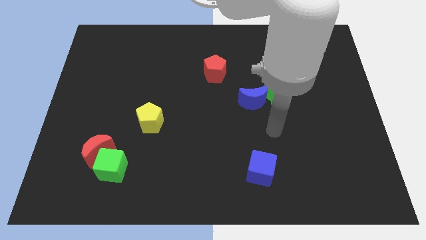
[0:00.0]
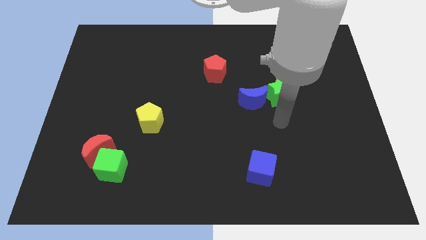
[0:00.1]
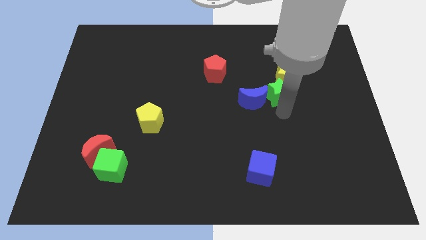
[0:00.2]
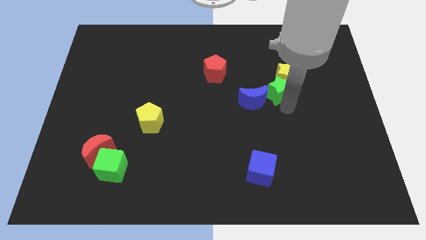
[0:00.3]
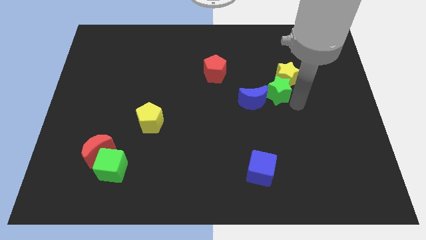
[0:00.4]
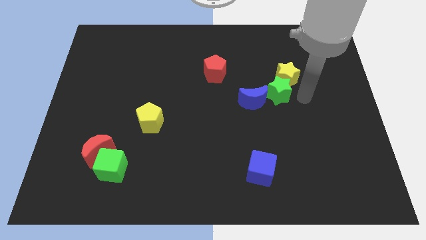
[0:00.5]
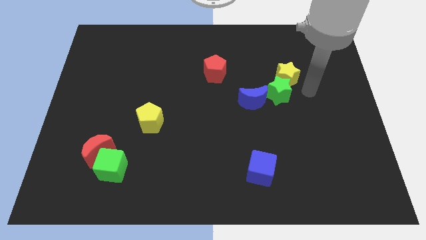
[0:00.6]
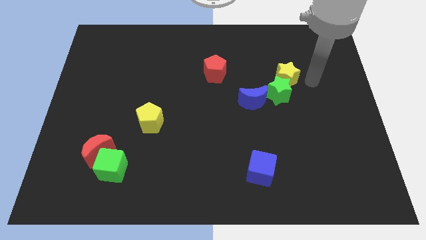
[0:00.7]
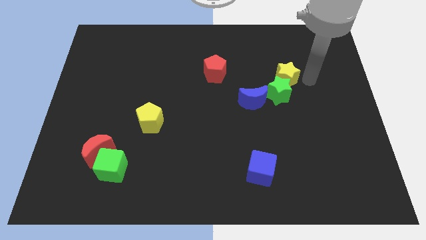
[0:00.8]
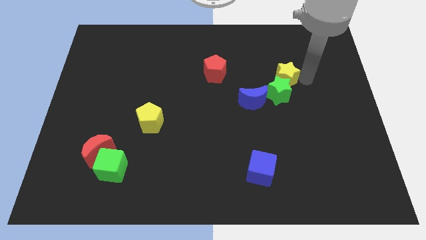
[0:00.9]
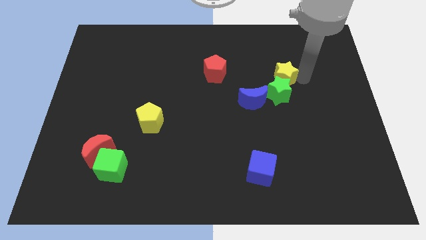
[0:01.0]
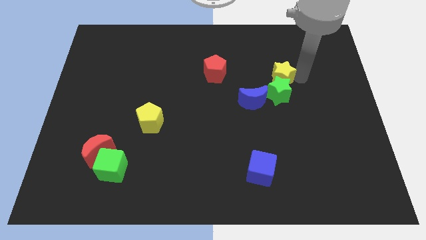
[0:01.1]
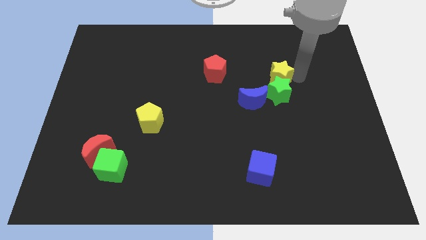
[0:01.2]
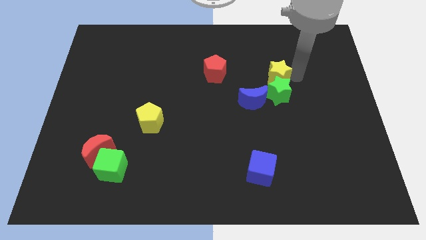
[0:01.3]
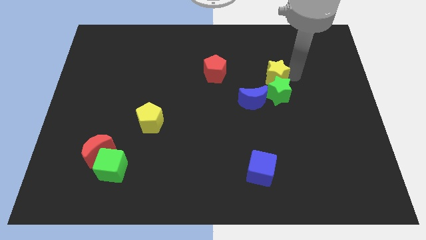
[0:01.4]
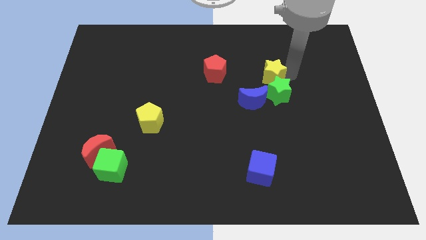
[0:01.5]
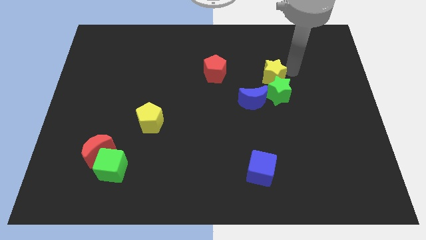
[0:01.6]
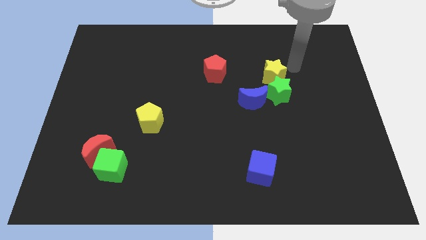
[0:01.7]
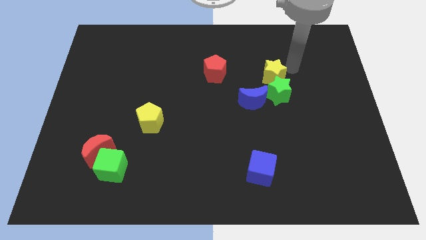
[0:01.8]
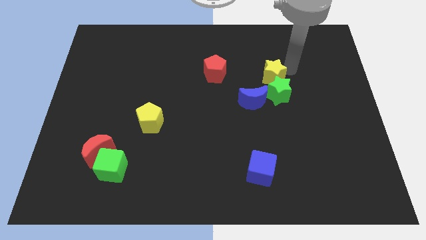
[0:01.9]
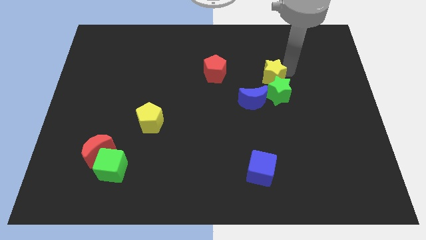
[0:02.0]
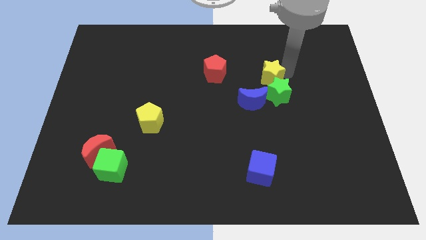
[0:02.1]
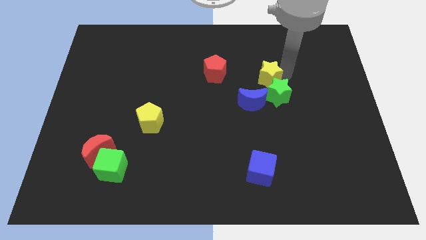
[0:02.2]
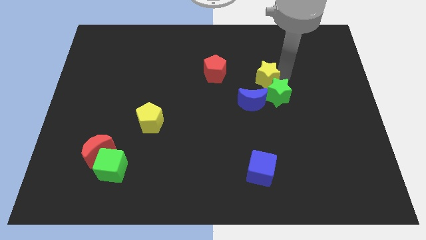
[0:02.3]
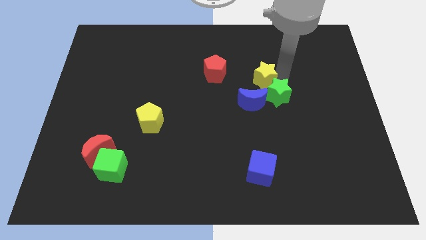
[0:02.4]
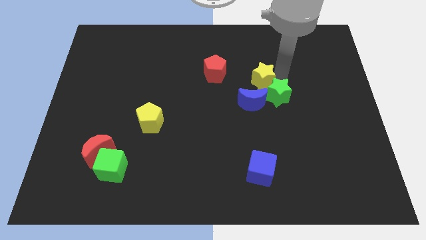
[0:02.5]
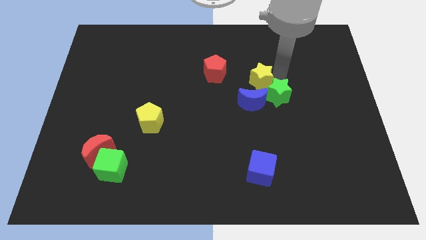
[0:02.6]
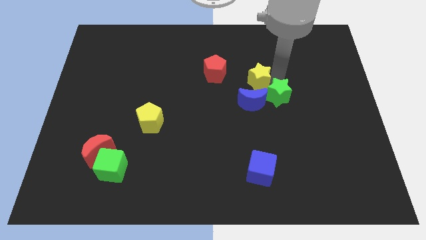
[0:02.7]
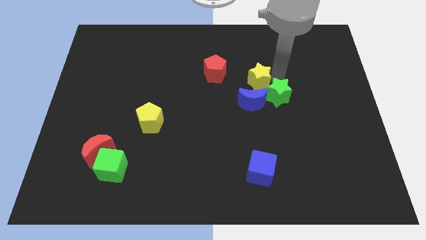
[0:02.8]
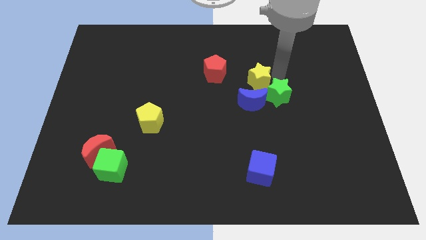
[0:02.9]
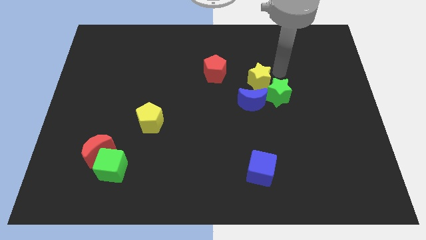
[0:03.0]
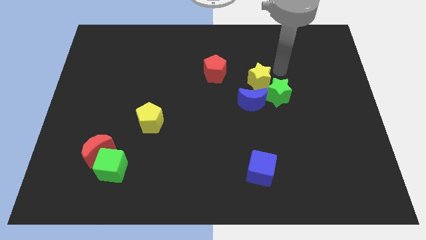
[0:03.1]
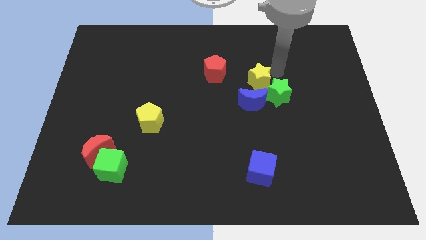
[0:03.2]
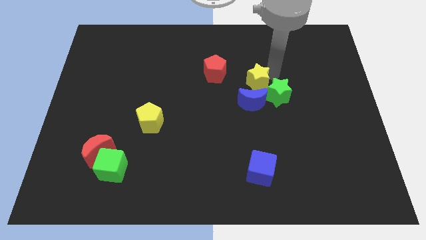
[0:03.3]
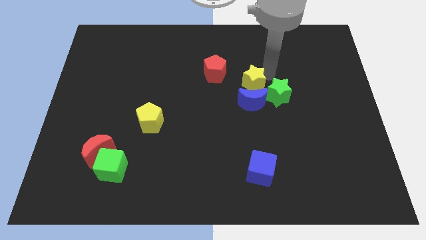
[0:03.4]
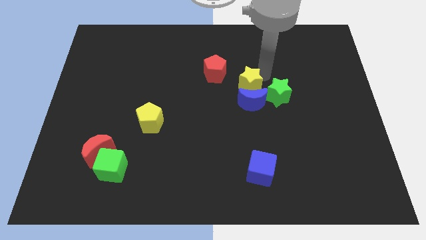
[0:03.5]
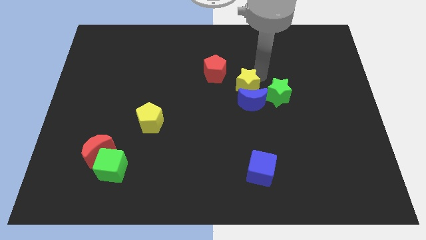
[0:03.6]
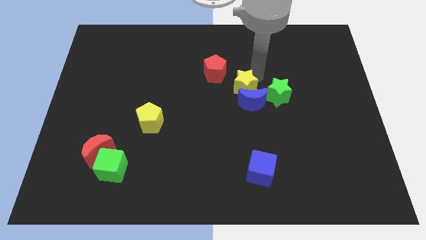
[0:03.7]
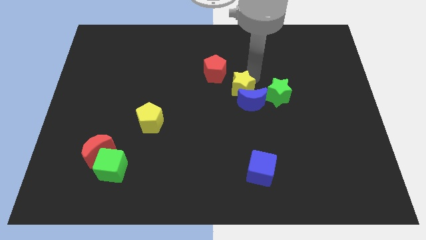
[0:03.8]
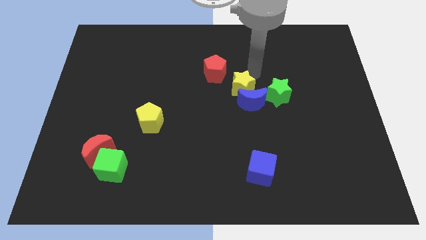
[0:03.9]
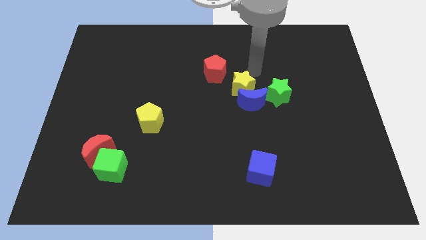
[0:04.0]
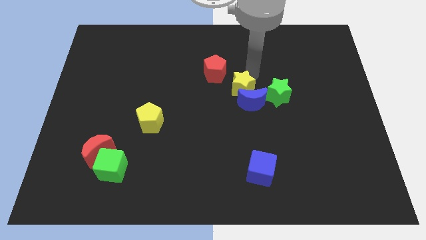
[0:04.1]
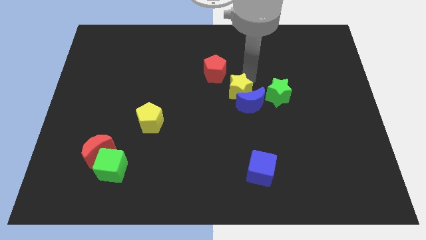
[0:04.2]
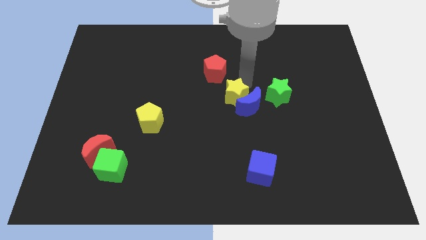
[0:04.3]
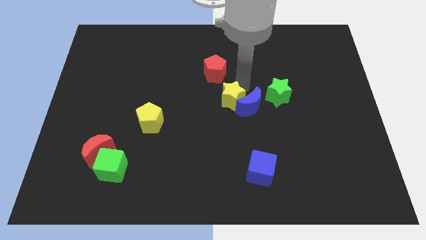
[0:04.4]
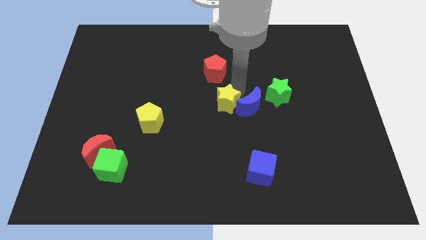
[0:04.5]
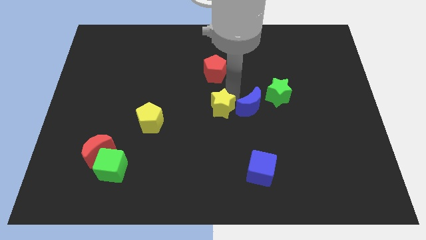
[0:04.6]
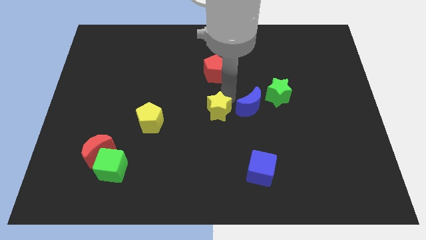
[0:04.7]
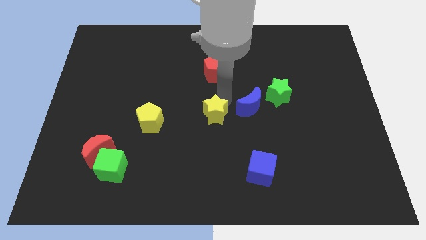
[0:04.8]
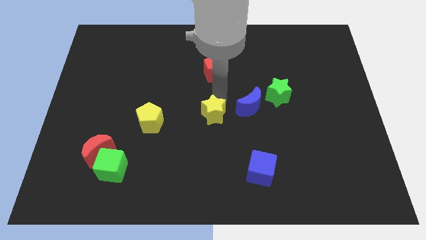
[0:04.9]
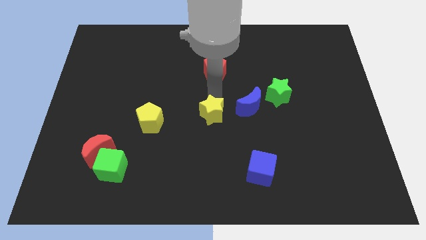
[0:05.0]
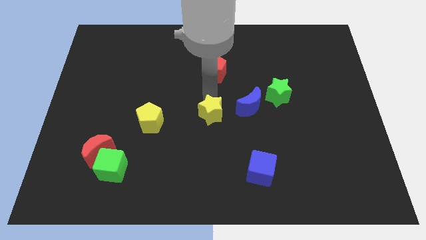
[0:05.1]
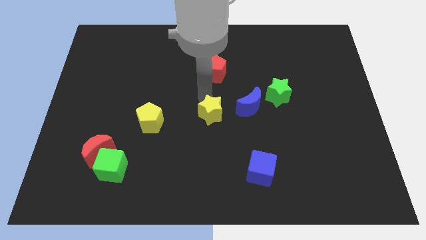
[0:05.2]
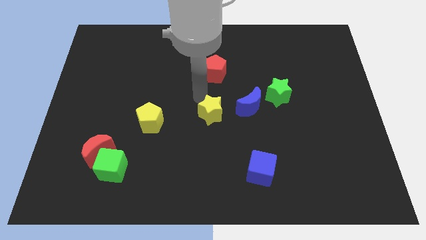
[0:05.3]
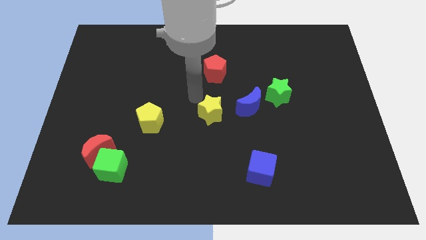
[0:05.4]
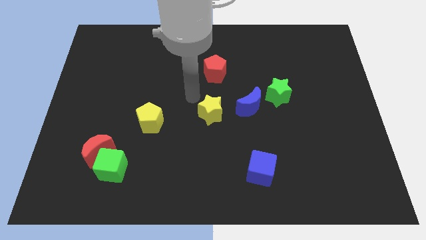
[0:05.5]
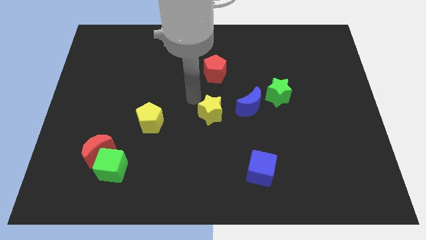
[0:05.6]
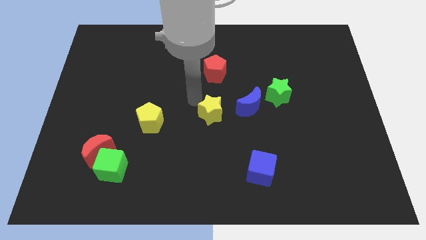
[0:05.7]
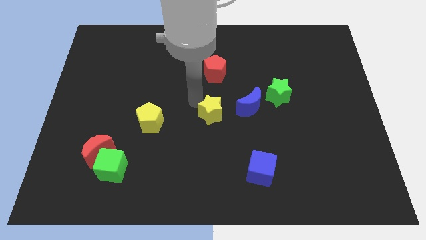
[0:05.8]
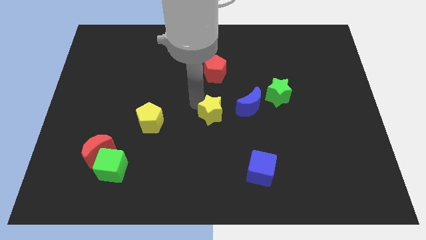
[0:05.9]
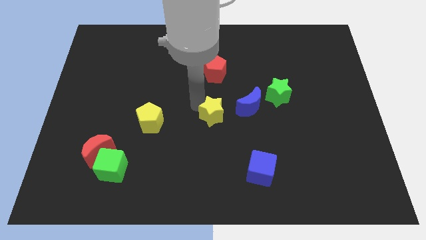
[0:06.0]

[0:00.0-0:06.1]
push the yellow star down and then to the left

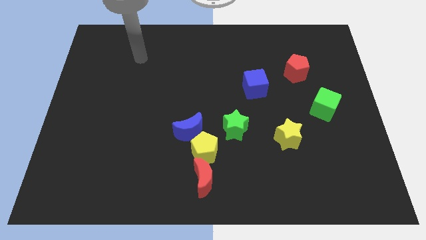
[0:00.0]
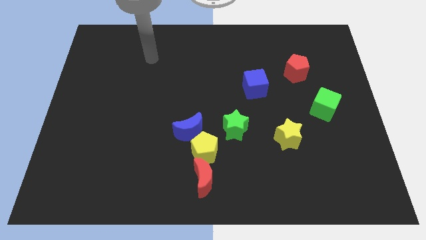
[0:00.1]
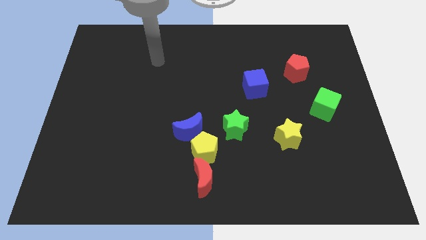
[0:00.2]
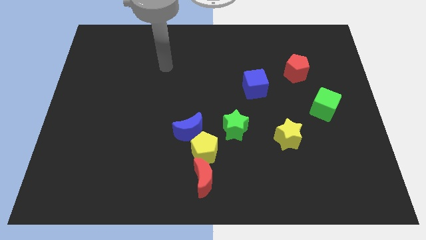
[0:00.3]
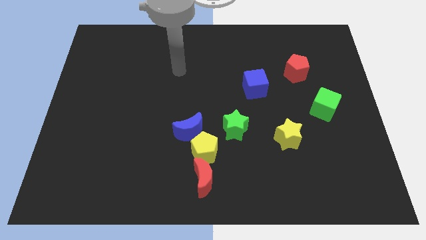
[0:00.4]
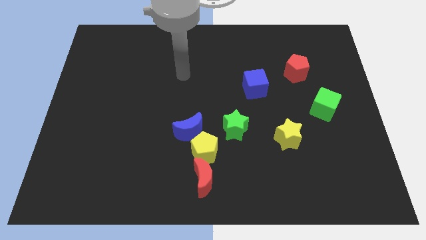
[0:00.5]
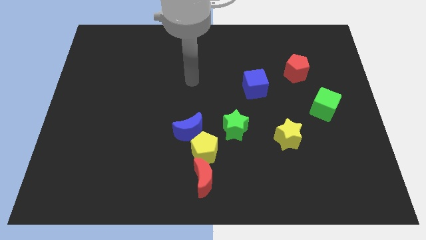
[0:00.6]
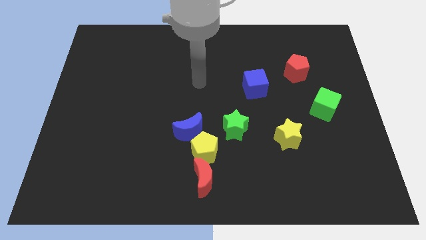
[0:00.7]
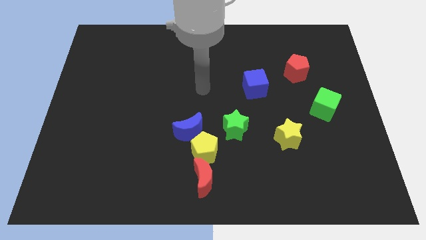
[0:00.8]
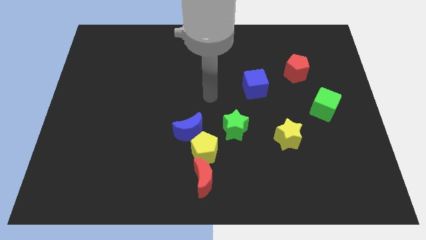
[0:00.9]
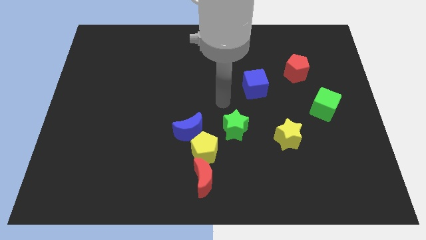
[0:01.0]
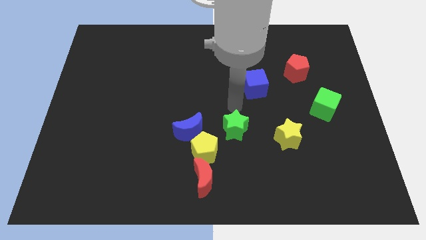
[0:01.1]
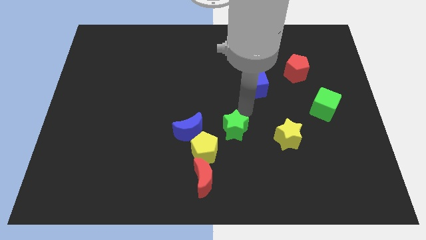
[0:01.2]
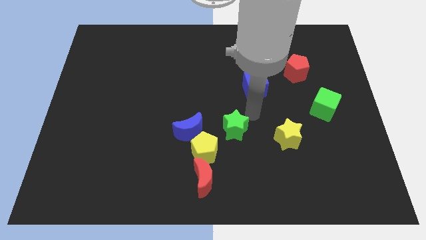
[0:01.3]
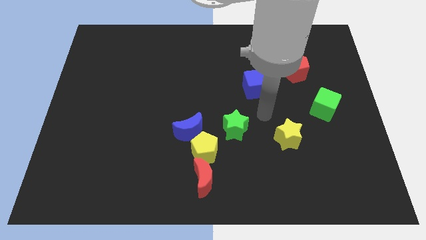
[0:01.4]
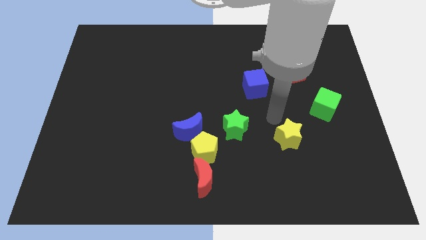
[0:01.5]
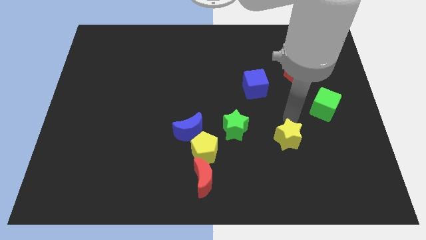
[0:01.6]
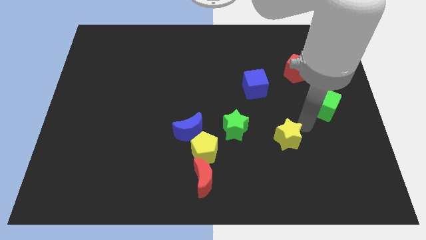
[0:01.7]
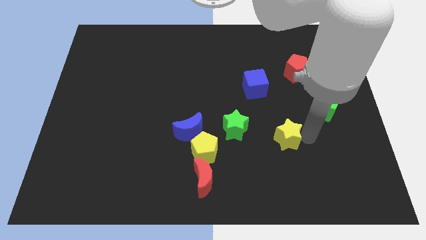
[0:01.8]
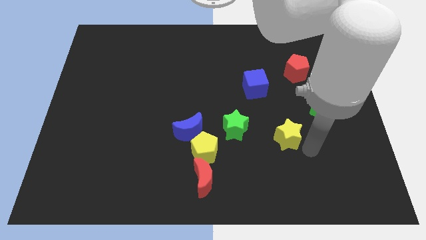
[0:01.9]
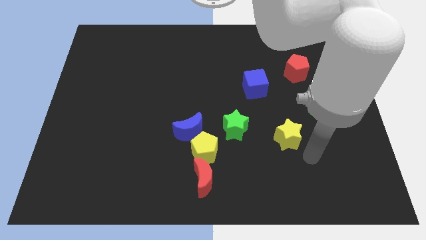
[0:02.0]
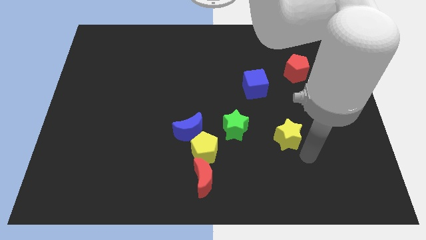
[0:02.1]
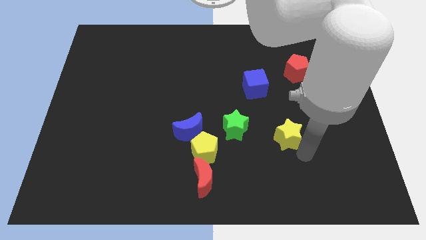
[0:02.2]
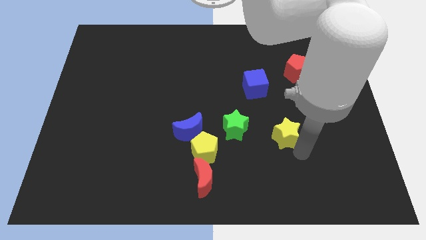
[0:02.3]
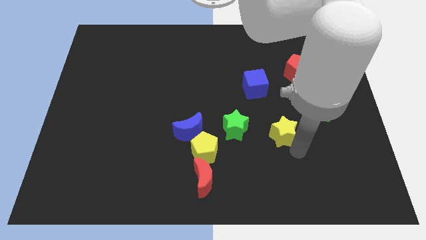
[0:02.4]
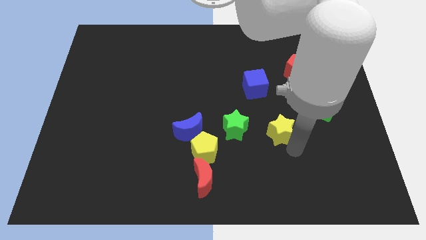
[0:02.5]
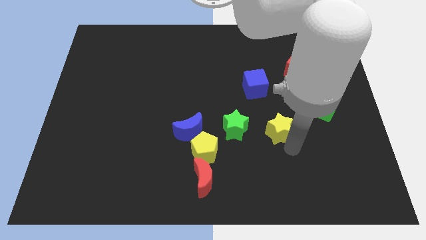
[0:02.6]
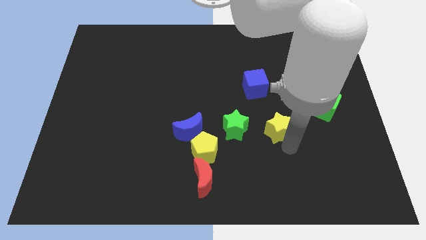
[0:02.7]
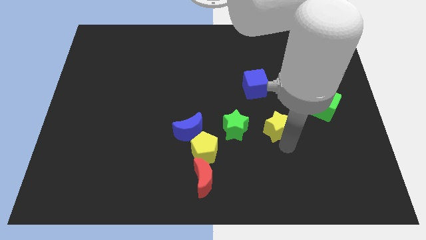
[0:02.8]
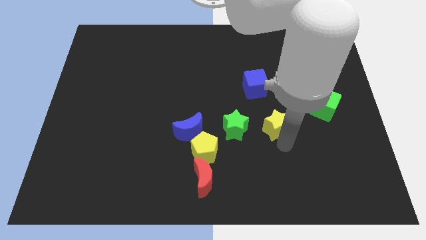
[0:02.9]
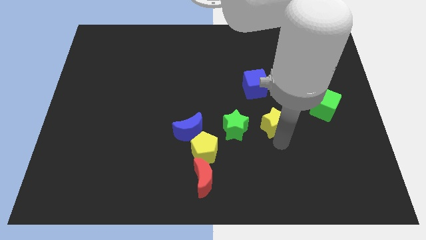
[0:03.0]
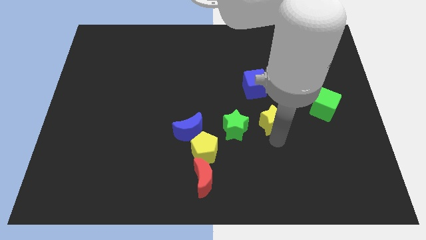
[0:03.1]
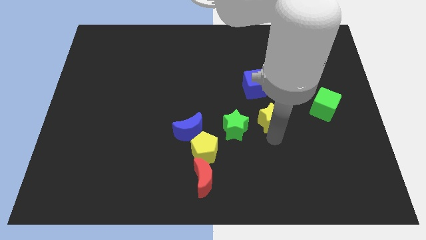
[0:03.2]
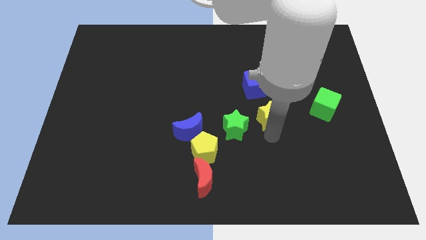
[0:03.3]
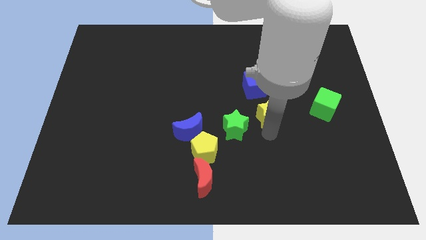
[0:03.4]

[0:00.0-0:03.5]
push the yellow star a little bit up and then to the left
